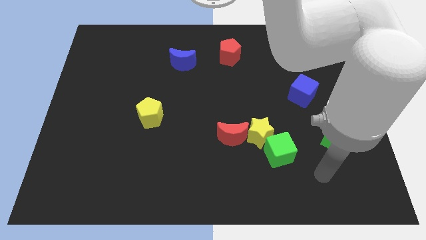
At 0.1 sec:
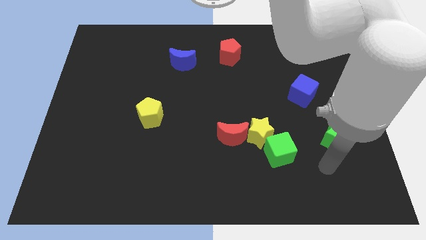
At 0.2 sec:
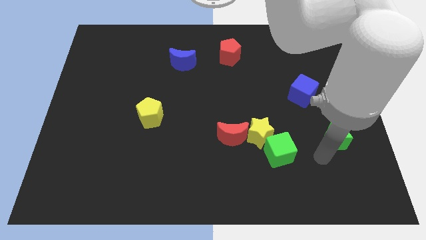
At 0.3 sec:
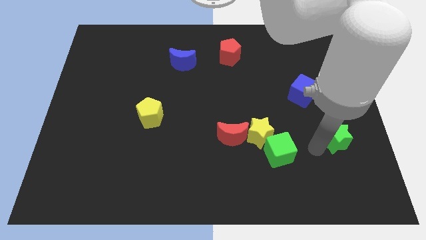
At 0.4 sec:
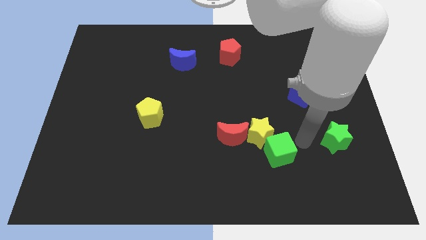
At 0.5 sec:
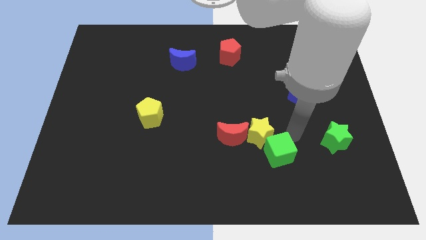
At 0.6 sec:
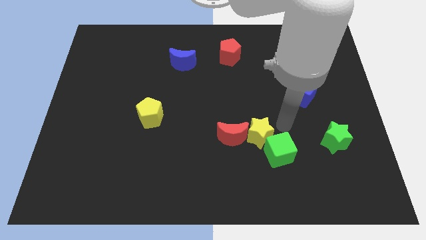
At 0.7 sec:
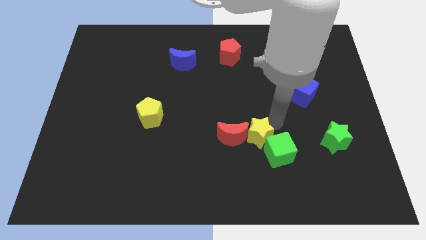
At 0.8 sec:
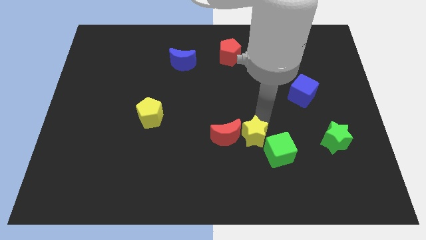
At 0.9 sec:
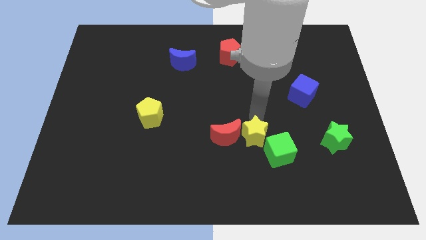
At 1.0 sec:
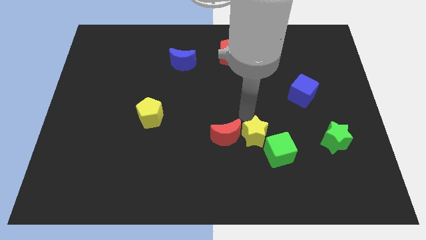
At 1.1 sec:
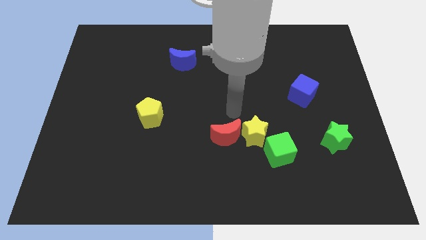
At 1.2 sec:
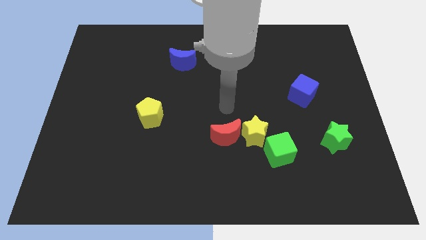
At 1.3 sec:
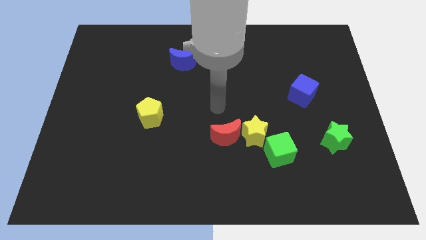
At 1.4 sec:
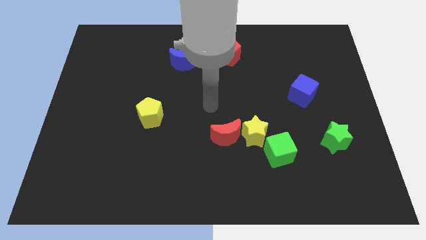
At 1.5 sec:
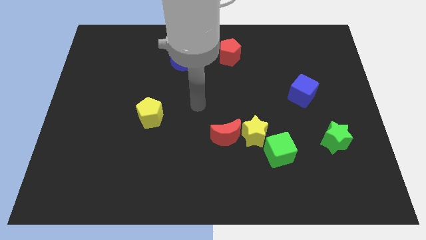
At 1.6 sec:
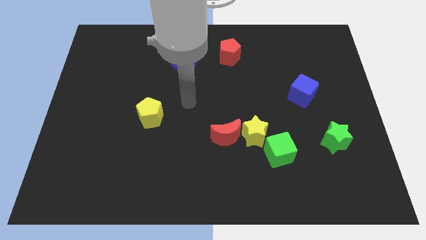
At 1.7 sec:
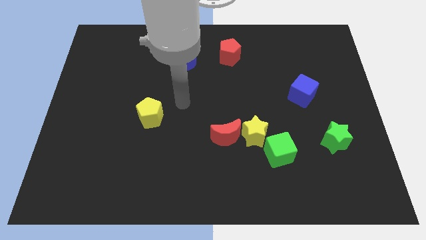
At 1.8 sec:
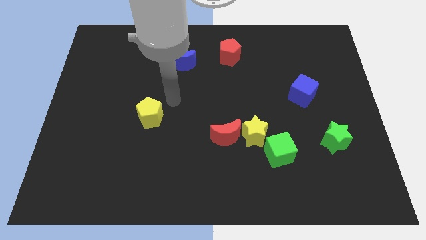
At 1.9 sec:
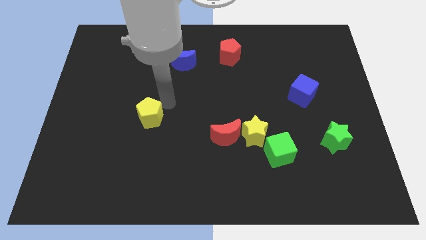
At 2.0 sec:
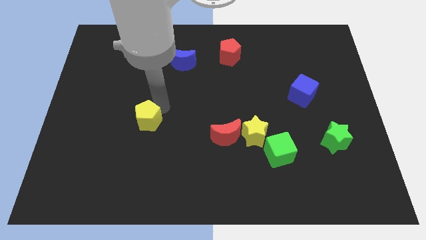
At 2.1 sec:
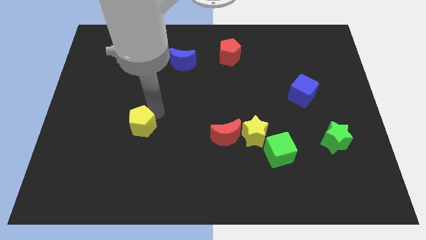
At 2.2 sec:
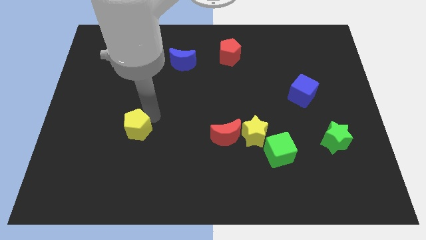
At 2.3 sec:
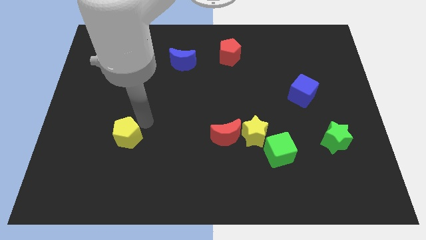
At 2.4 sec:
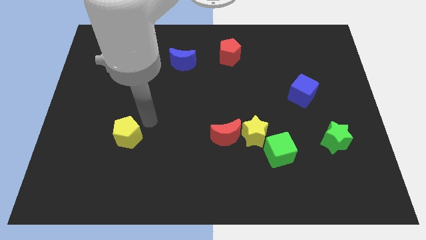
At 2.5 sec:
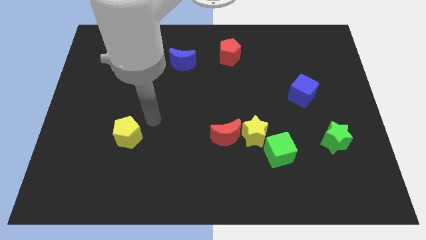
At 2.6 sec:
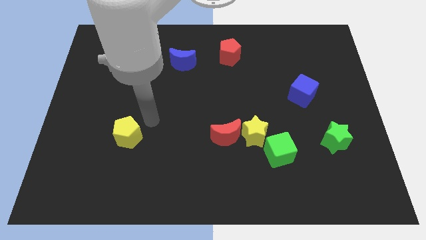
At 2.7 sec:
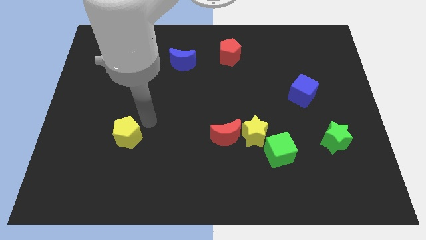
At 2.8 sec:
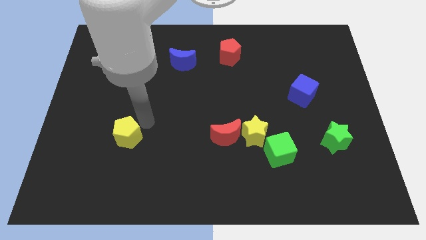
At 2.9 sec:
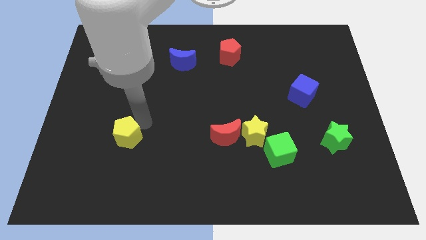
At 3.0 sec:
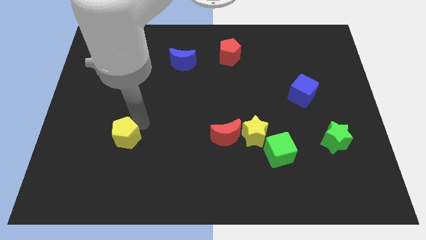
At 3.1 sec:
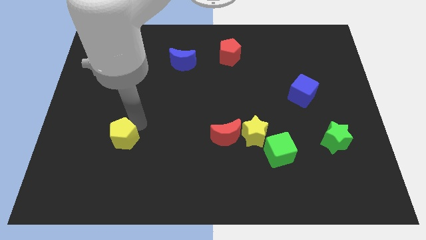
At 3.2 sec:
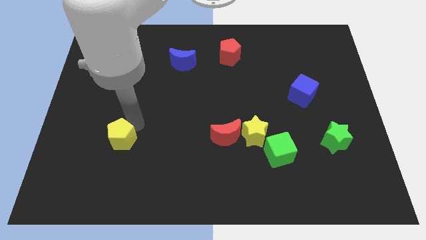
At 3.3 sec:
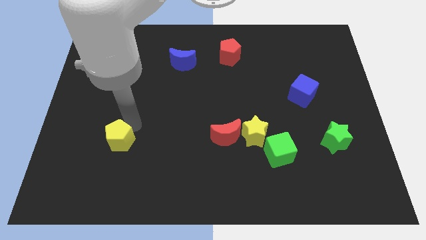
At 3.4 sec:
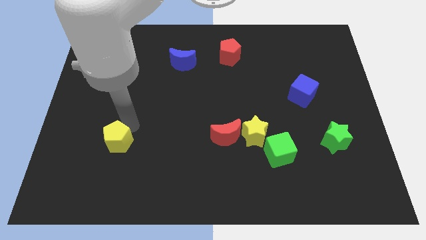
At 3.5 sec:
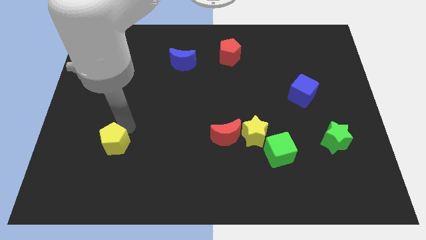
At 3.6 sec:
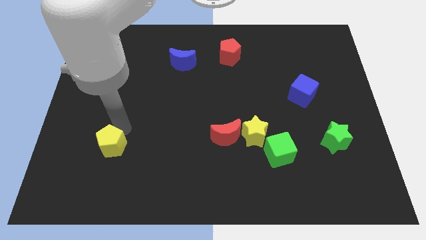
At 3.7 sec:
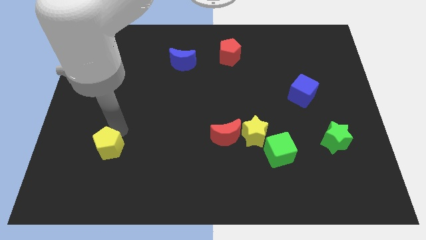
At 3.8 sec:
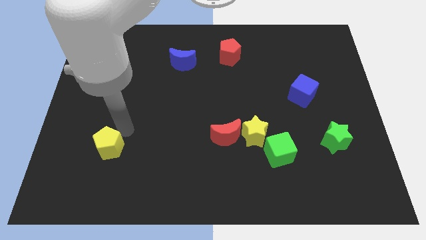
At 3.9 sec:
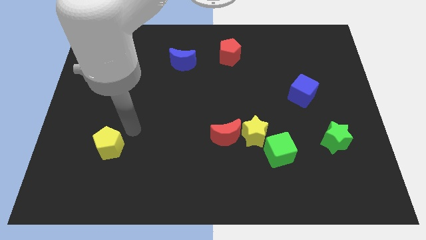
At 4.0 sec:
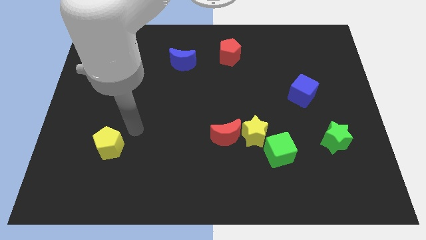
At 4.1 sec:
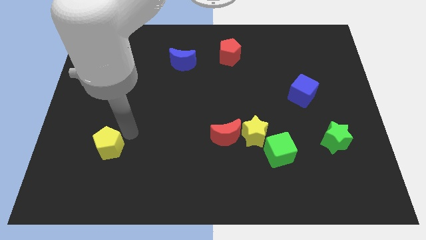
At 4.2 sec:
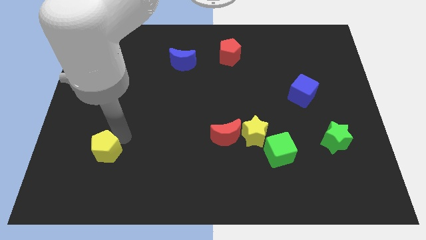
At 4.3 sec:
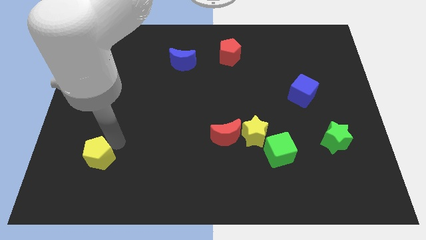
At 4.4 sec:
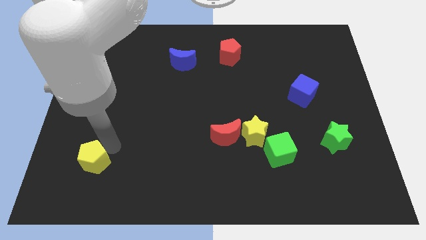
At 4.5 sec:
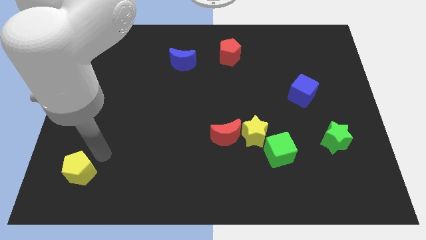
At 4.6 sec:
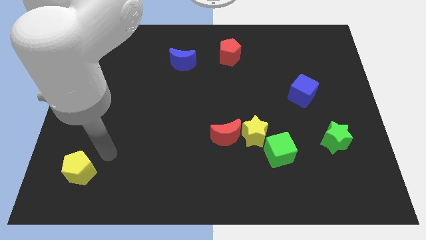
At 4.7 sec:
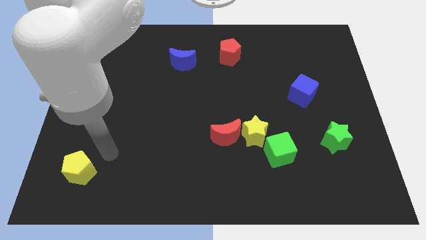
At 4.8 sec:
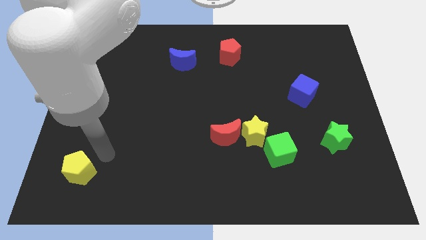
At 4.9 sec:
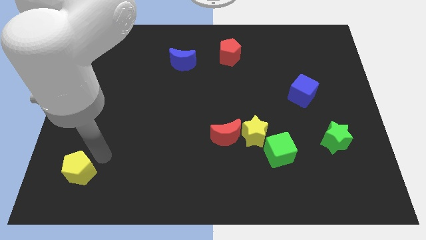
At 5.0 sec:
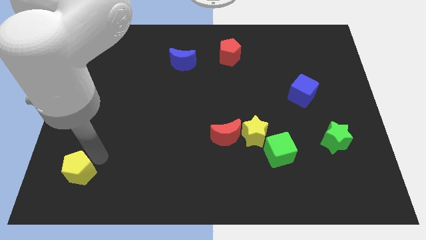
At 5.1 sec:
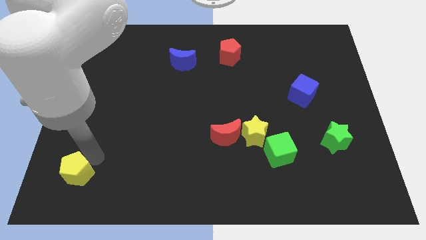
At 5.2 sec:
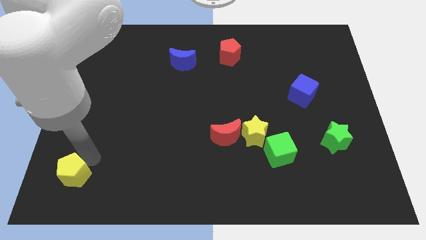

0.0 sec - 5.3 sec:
push the yellow pentagon to the bottom left corner

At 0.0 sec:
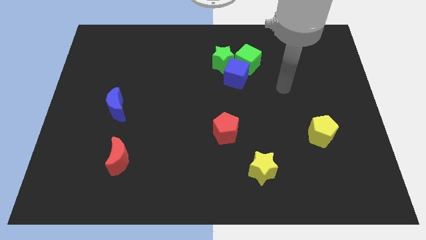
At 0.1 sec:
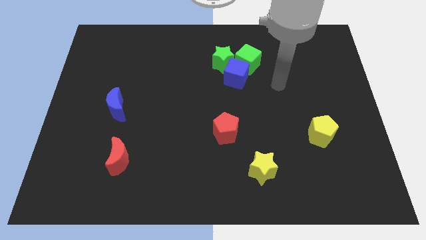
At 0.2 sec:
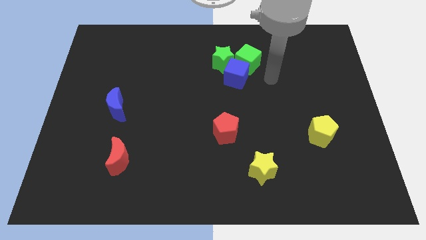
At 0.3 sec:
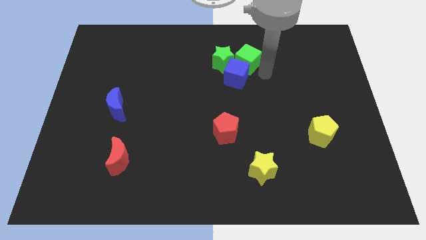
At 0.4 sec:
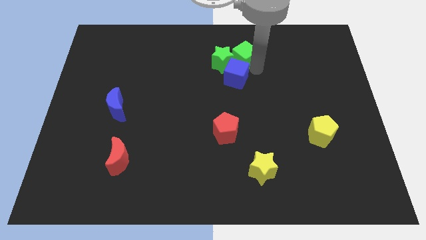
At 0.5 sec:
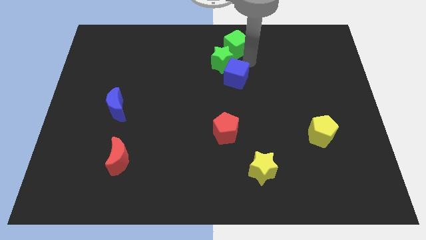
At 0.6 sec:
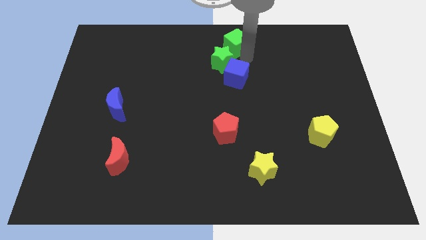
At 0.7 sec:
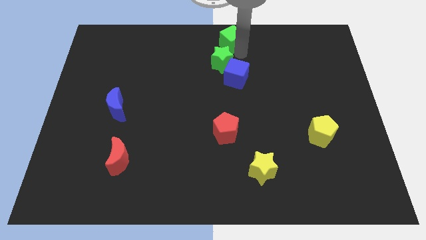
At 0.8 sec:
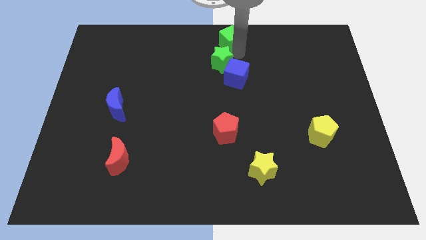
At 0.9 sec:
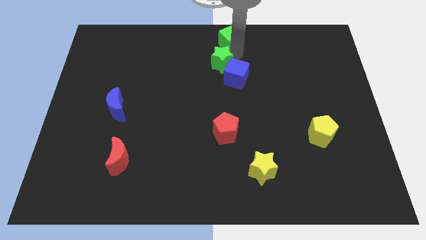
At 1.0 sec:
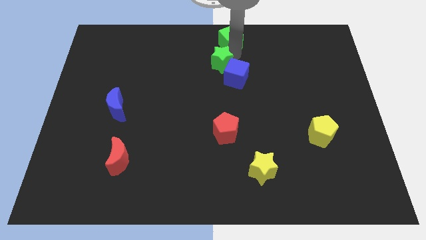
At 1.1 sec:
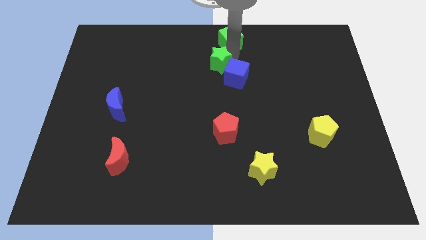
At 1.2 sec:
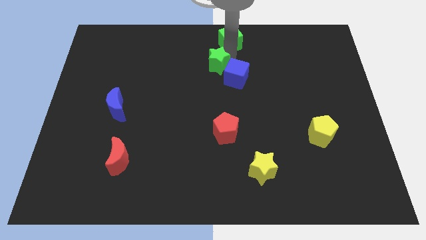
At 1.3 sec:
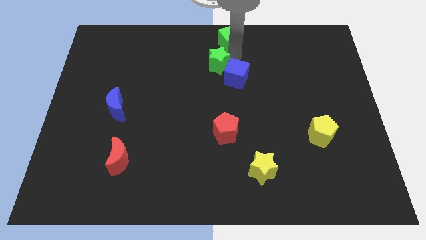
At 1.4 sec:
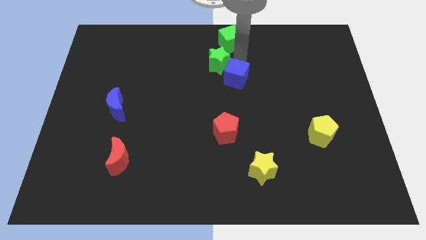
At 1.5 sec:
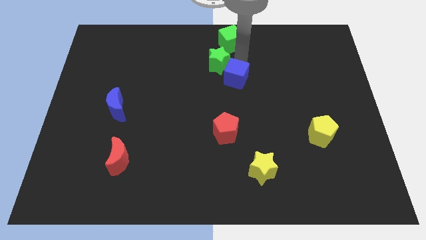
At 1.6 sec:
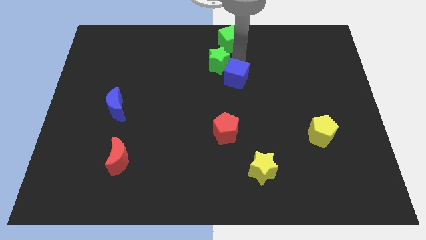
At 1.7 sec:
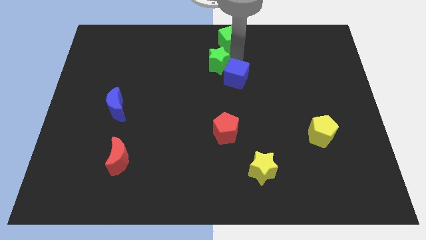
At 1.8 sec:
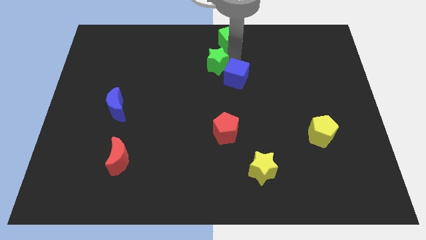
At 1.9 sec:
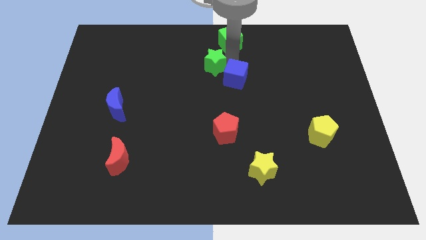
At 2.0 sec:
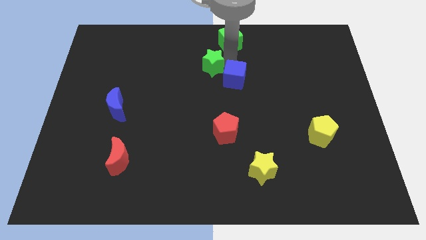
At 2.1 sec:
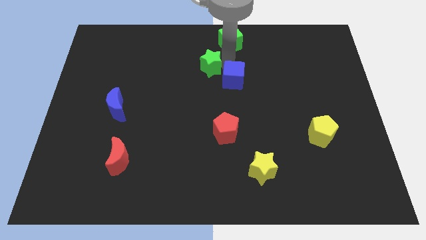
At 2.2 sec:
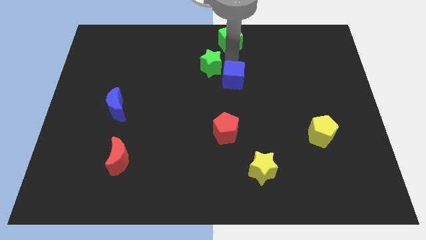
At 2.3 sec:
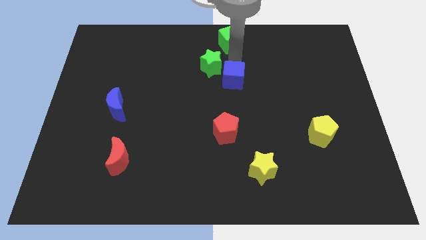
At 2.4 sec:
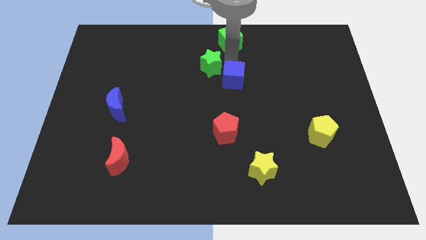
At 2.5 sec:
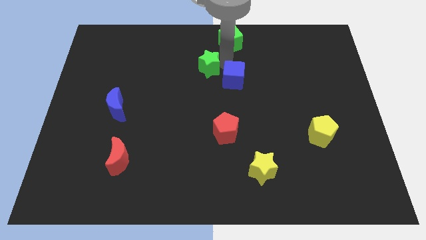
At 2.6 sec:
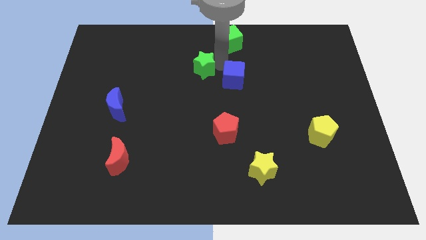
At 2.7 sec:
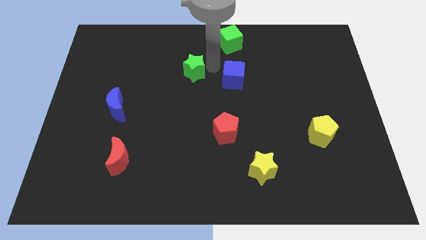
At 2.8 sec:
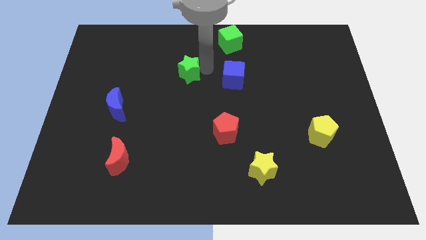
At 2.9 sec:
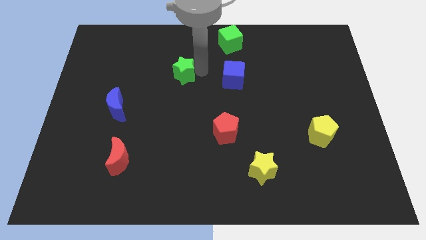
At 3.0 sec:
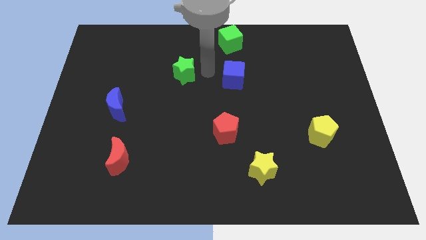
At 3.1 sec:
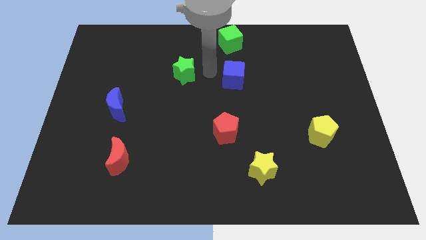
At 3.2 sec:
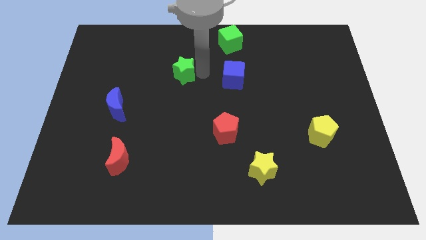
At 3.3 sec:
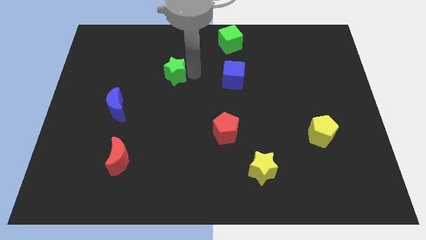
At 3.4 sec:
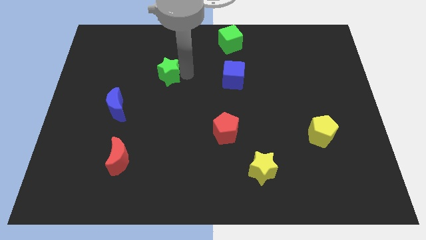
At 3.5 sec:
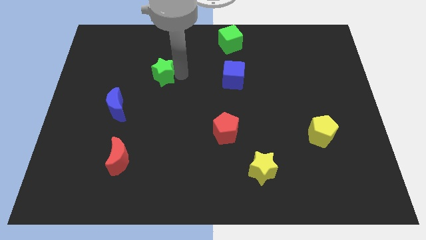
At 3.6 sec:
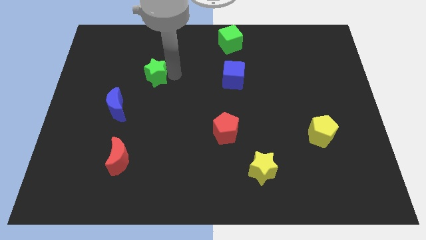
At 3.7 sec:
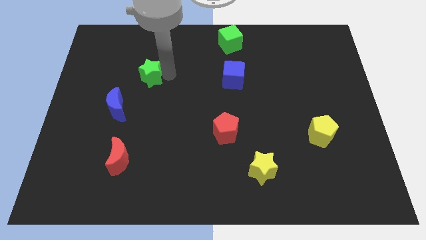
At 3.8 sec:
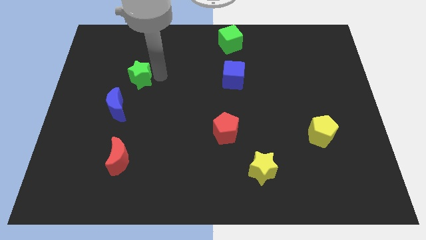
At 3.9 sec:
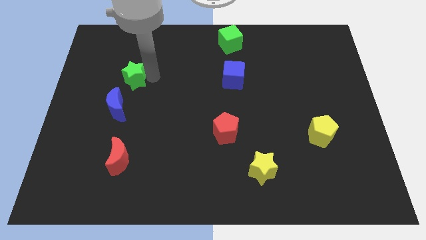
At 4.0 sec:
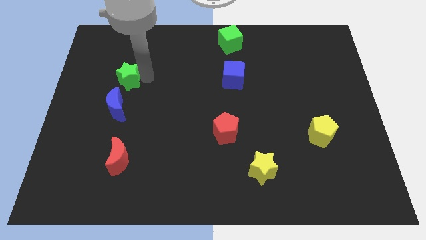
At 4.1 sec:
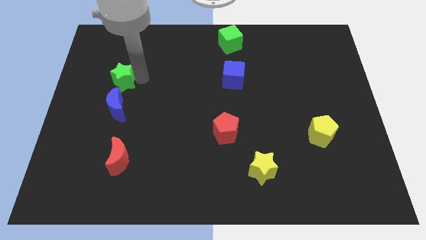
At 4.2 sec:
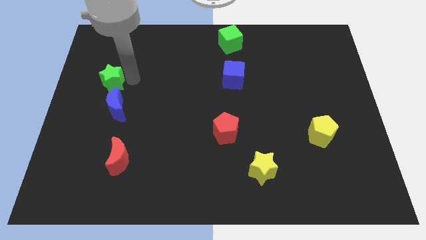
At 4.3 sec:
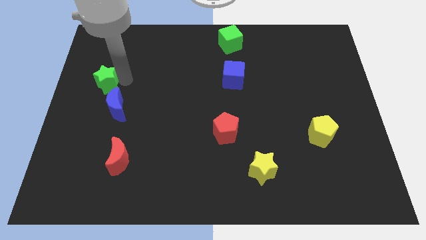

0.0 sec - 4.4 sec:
put the green star to the left side
